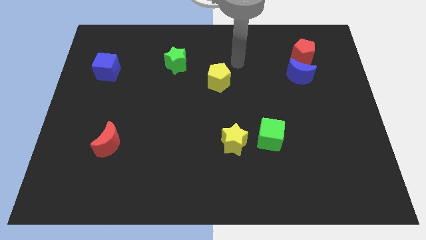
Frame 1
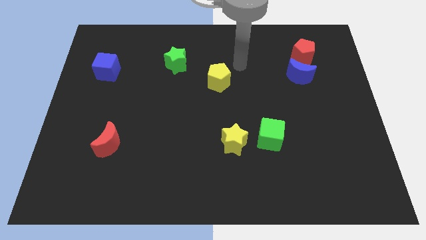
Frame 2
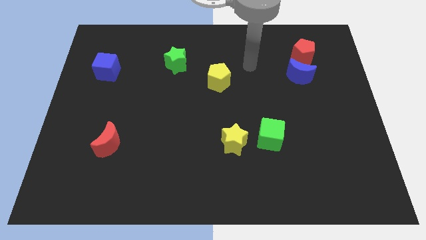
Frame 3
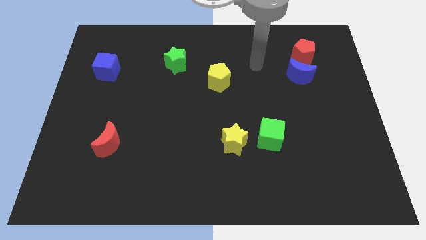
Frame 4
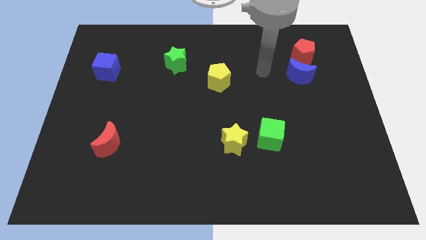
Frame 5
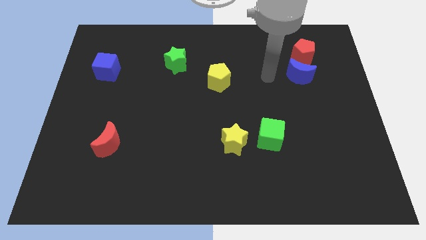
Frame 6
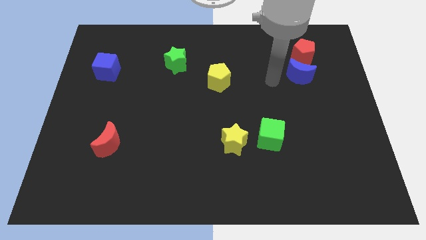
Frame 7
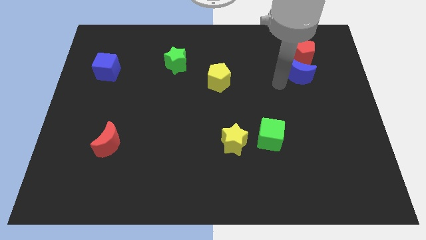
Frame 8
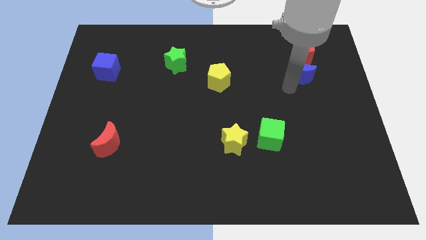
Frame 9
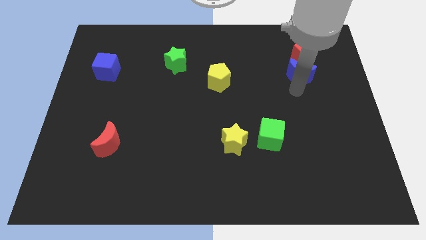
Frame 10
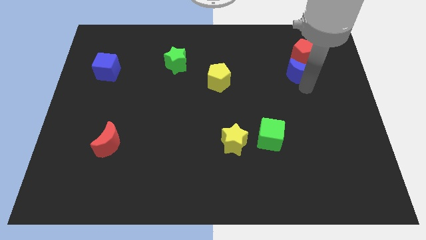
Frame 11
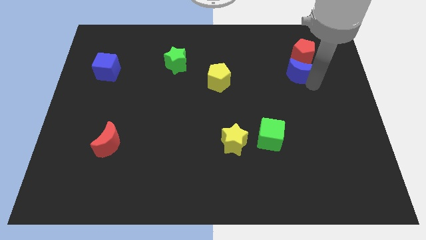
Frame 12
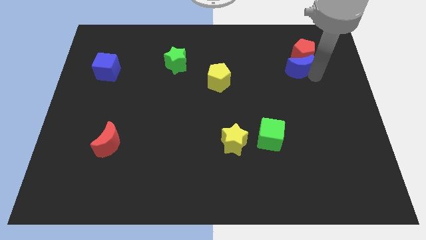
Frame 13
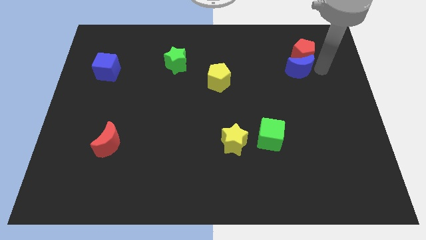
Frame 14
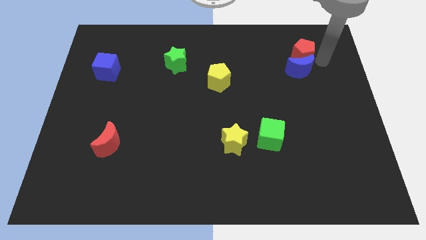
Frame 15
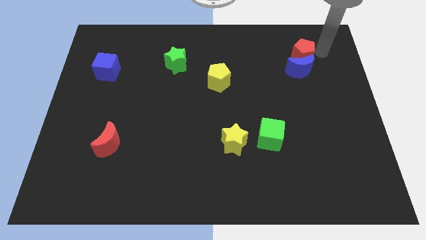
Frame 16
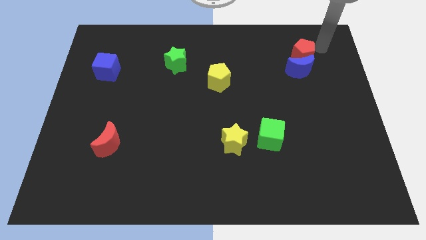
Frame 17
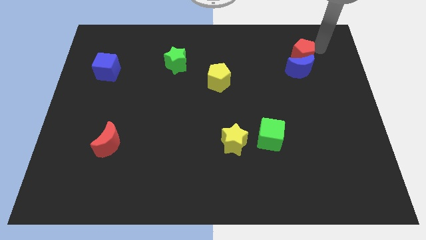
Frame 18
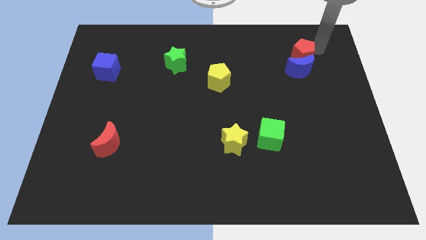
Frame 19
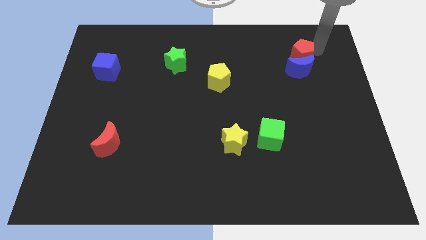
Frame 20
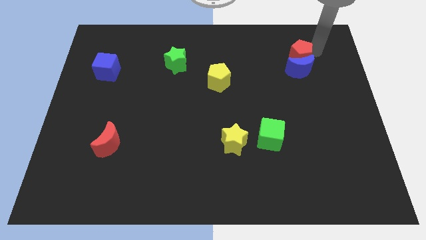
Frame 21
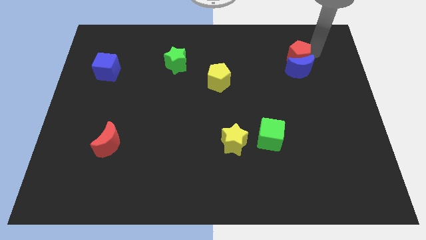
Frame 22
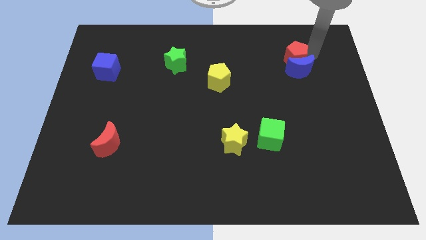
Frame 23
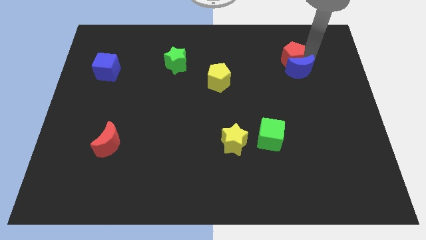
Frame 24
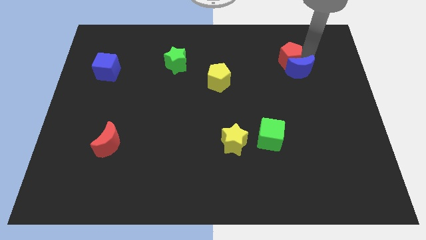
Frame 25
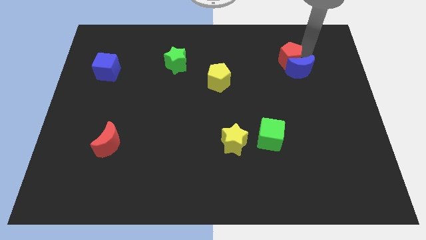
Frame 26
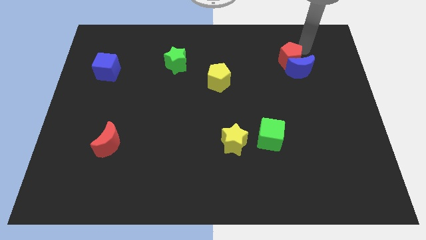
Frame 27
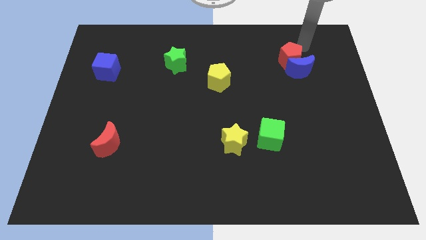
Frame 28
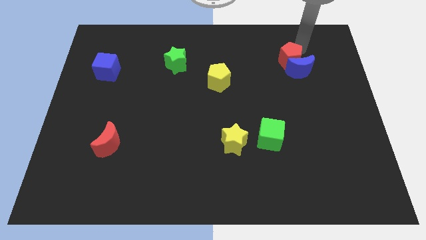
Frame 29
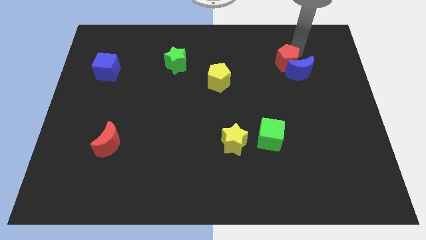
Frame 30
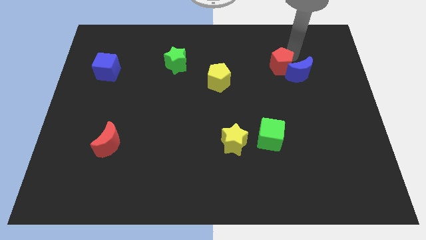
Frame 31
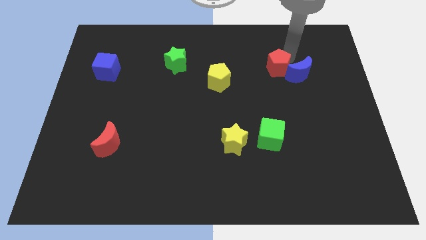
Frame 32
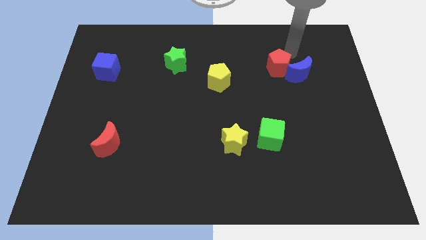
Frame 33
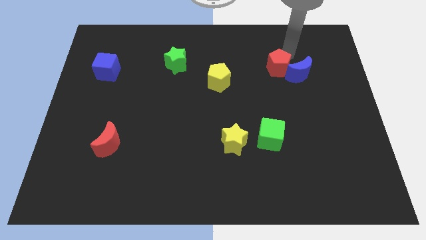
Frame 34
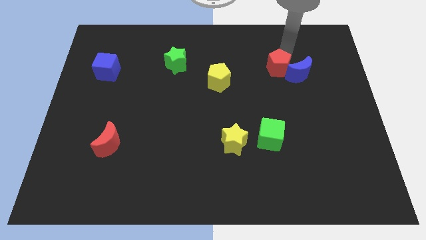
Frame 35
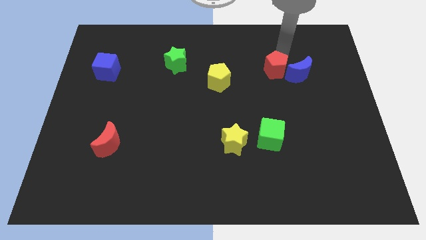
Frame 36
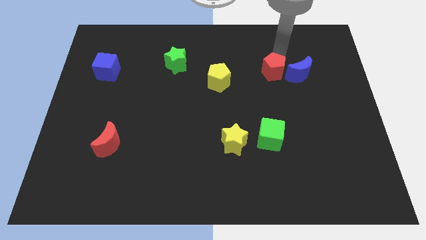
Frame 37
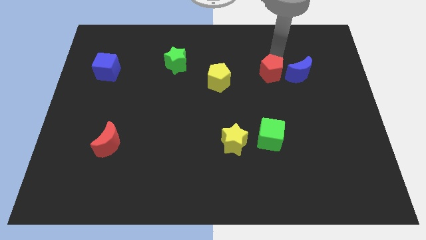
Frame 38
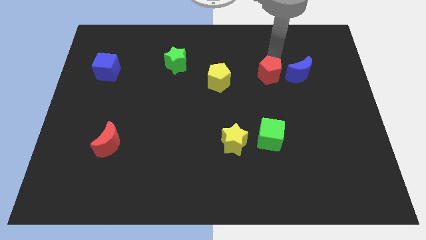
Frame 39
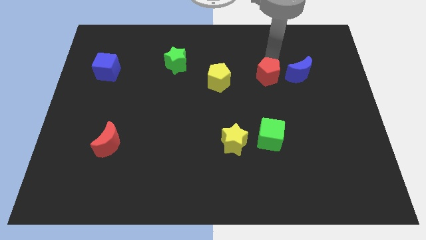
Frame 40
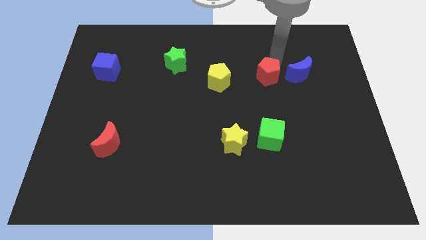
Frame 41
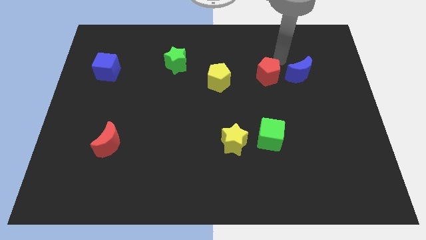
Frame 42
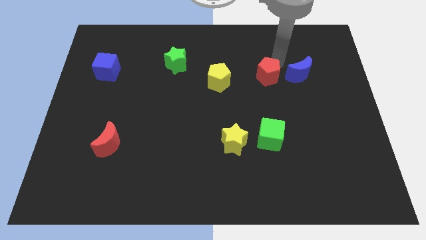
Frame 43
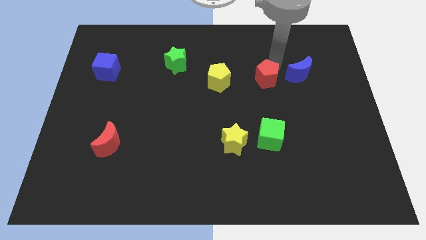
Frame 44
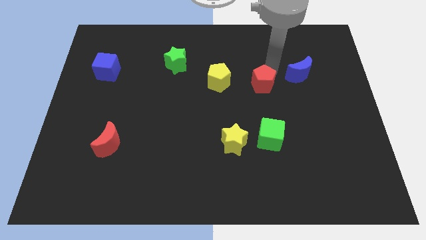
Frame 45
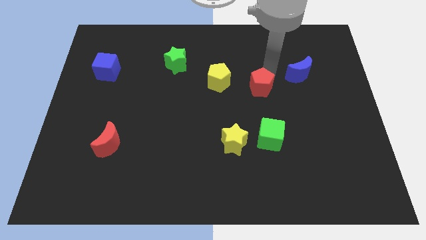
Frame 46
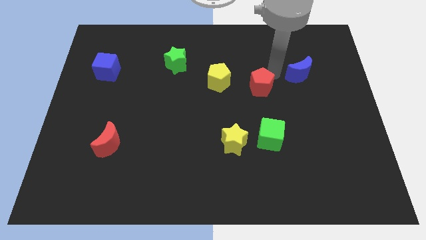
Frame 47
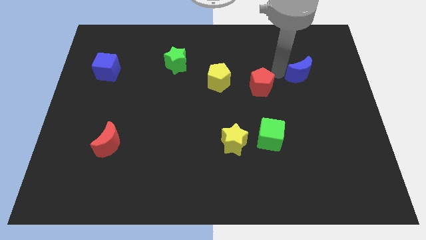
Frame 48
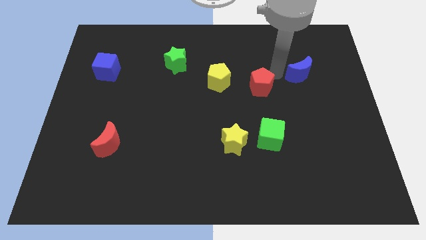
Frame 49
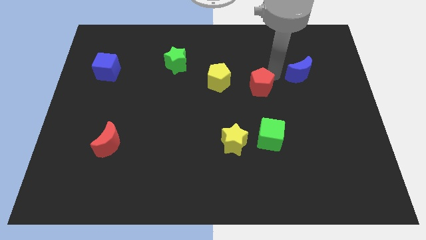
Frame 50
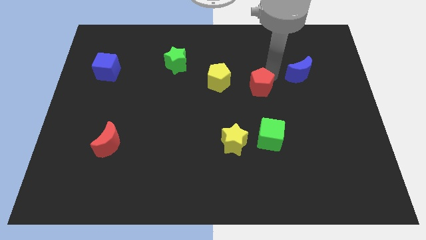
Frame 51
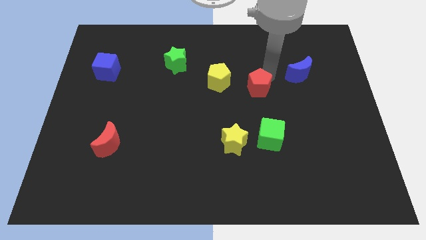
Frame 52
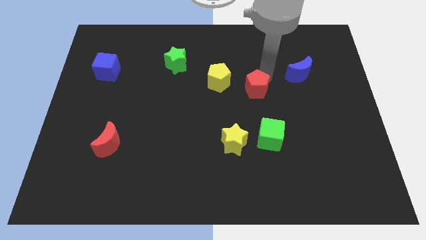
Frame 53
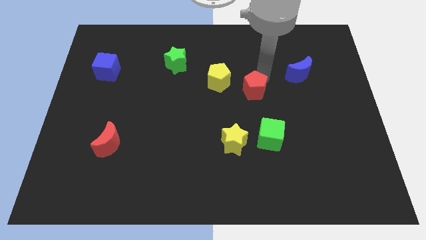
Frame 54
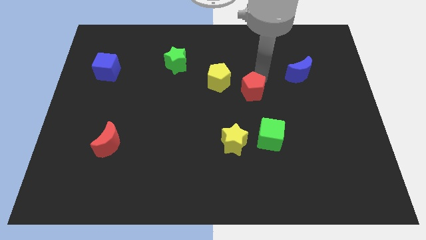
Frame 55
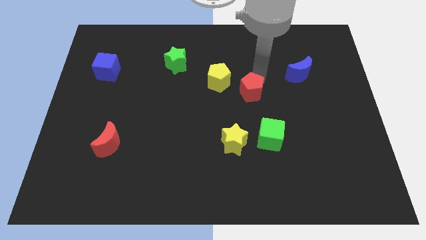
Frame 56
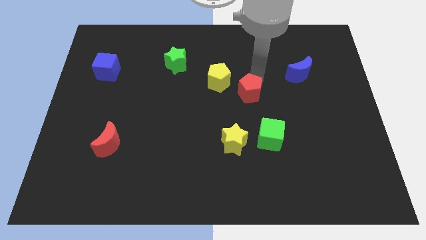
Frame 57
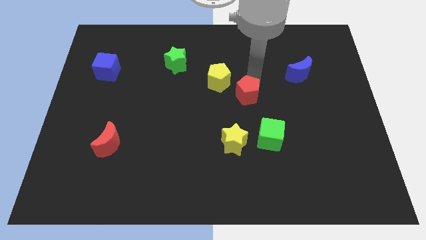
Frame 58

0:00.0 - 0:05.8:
move the red pentagon diagonally downwards and left

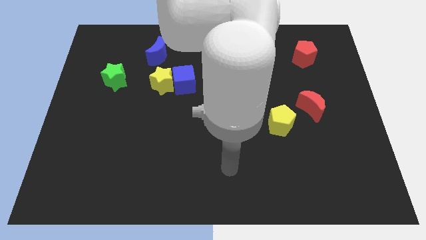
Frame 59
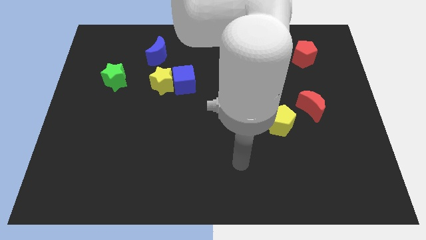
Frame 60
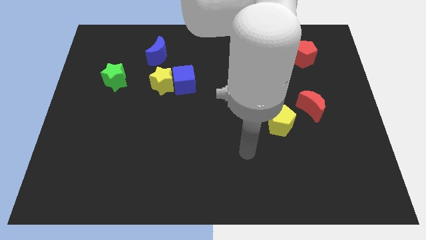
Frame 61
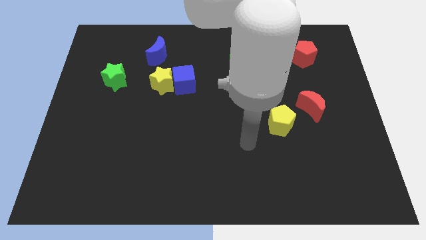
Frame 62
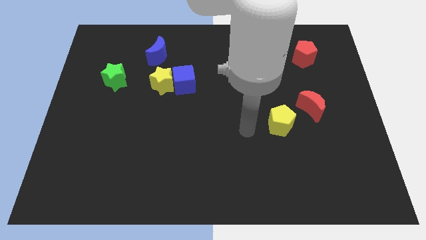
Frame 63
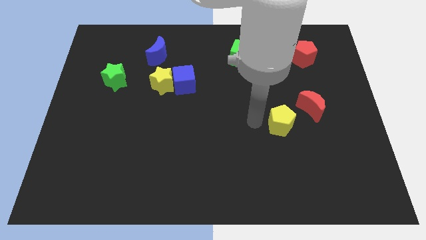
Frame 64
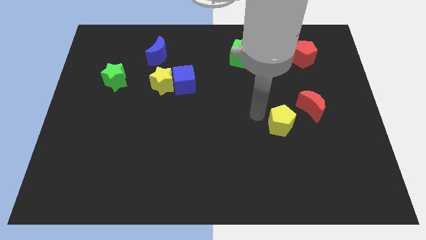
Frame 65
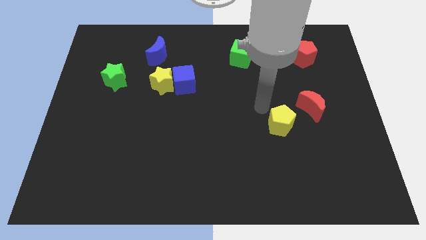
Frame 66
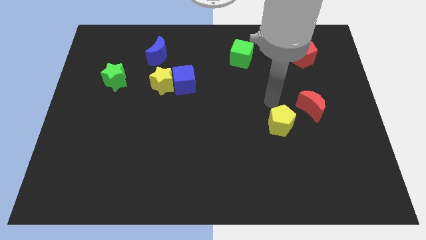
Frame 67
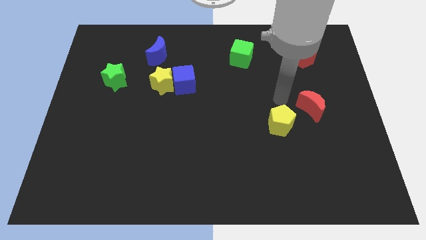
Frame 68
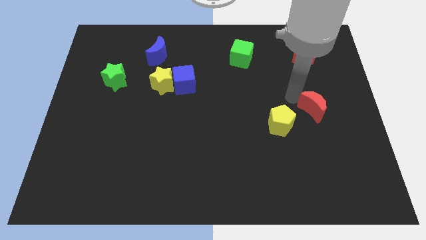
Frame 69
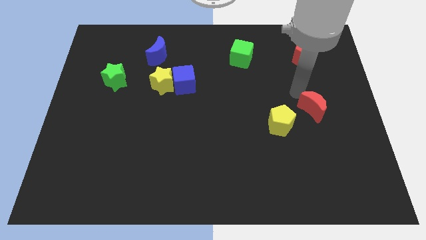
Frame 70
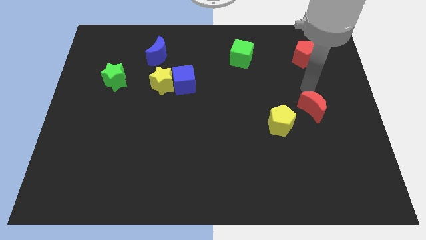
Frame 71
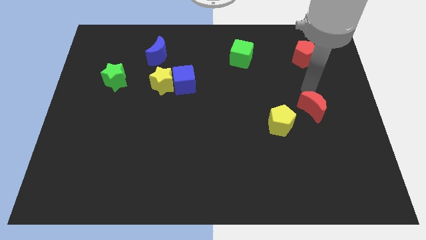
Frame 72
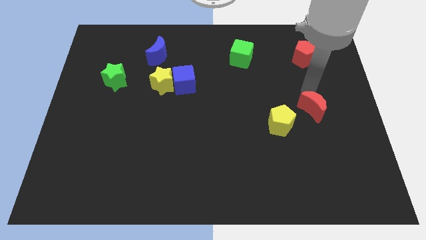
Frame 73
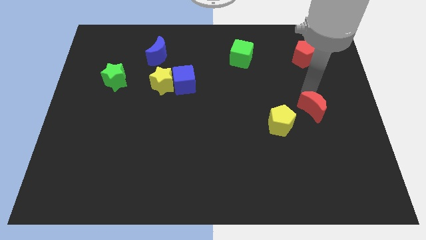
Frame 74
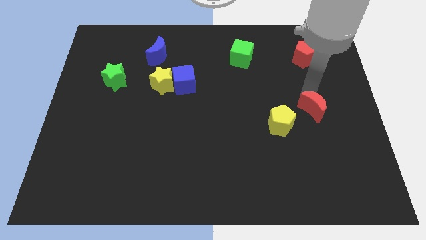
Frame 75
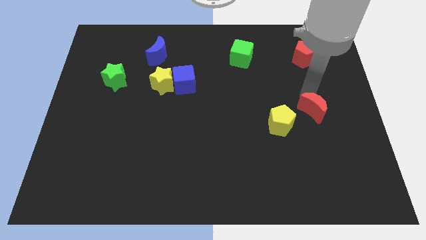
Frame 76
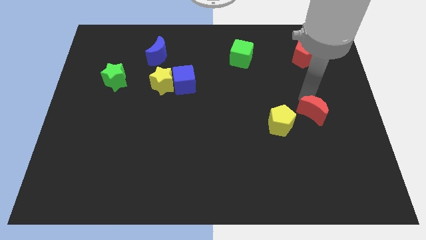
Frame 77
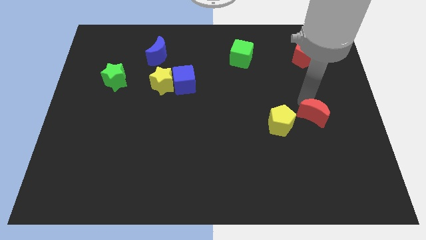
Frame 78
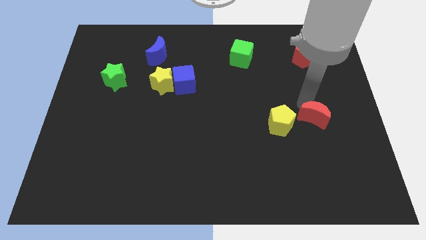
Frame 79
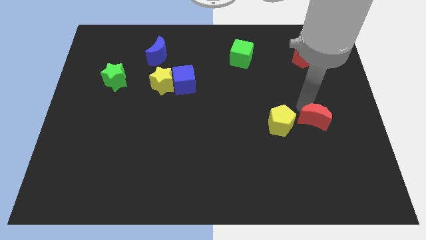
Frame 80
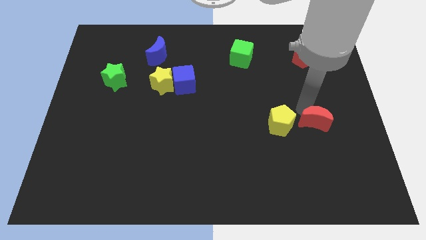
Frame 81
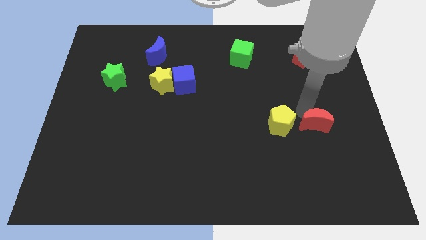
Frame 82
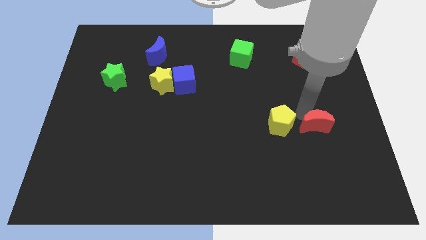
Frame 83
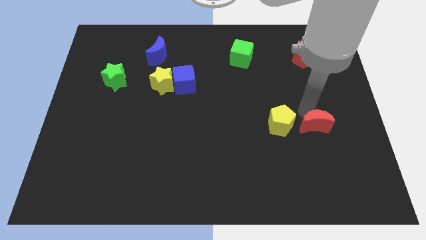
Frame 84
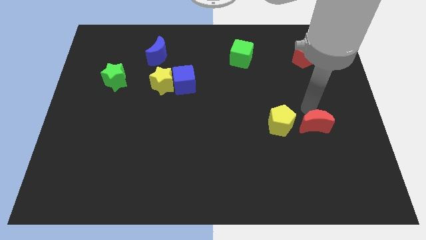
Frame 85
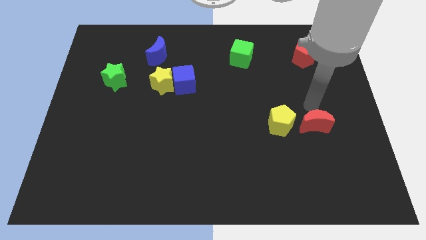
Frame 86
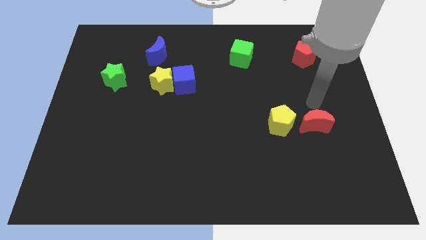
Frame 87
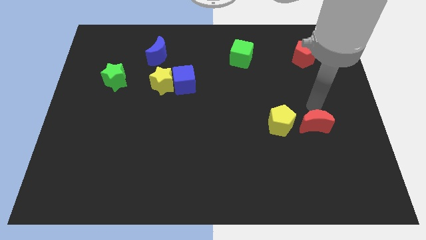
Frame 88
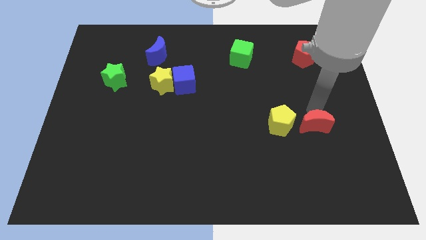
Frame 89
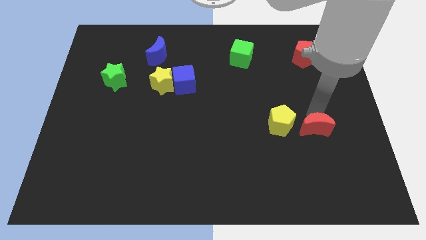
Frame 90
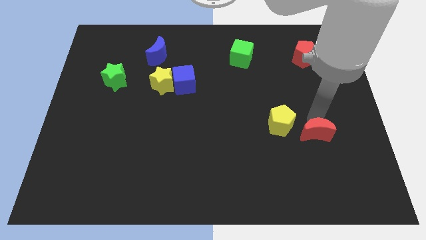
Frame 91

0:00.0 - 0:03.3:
slide the red moon down a little bit
